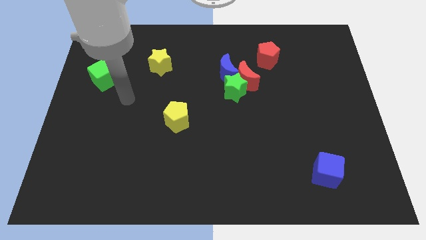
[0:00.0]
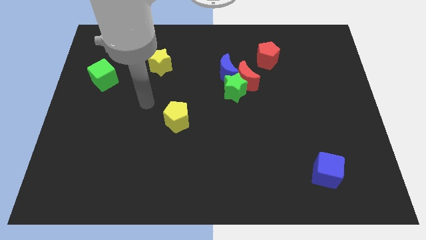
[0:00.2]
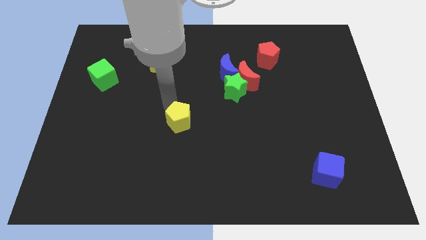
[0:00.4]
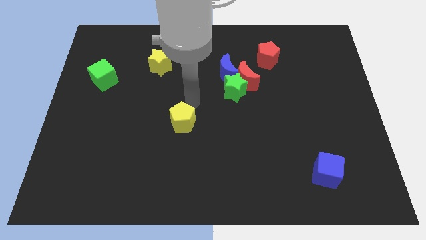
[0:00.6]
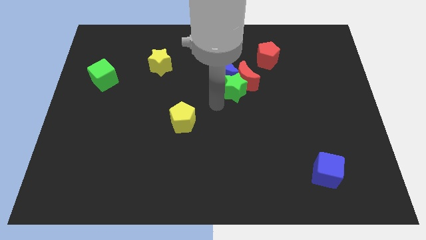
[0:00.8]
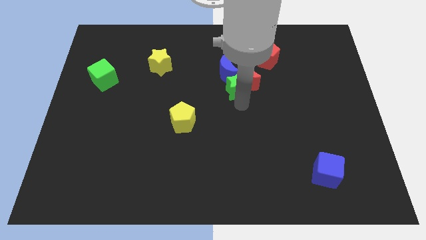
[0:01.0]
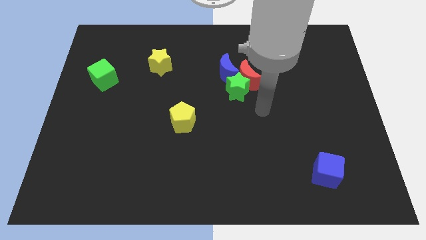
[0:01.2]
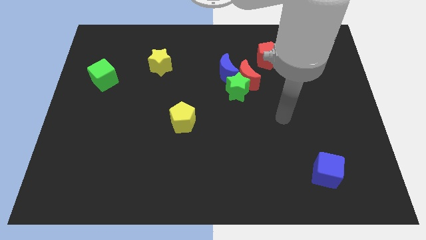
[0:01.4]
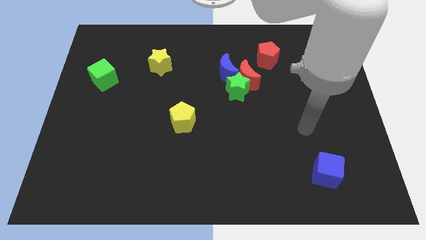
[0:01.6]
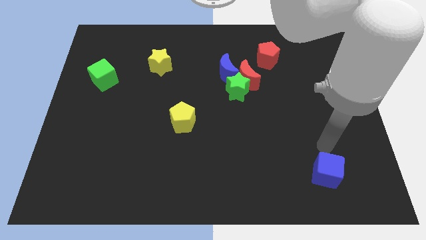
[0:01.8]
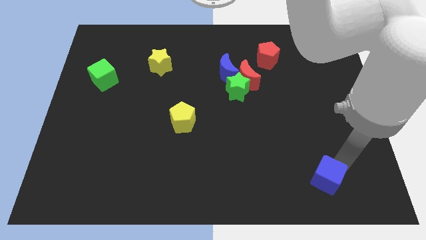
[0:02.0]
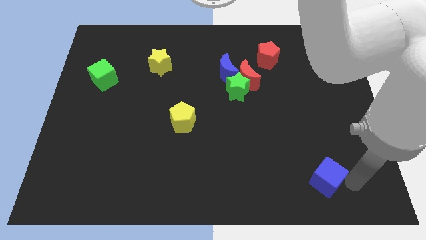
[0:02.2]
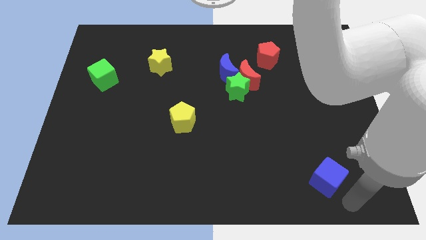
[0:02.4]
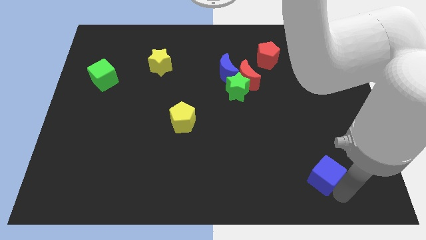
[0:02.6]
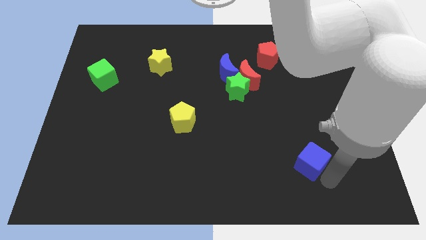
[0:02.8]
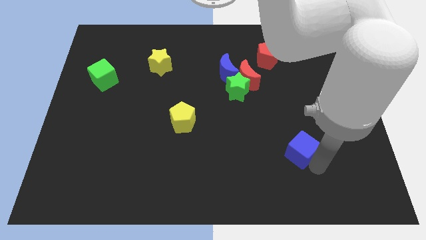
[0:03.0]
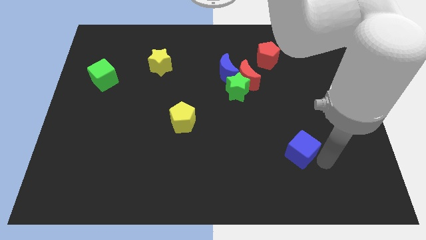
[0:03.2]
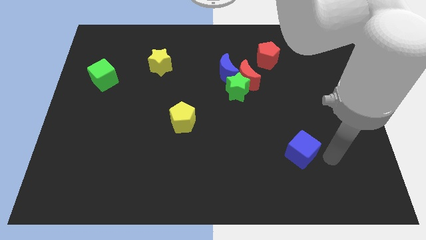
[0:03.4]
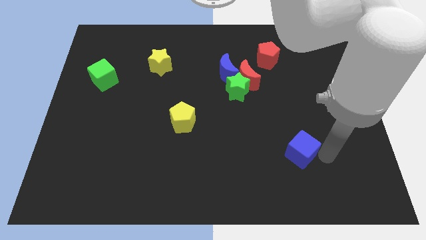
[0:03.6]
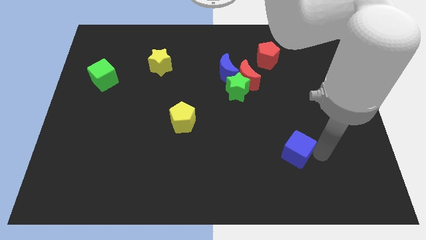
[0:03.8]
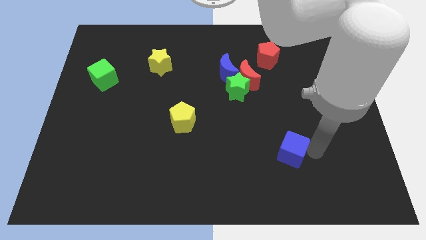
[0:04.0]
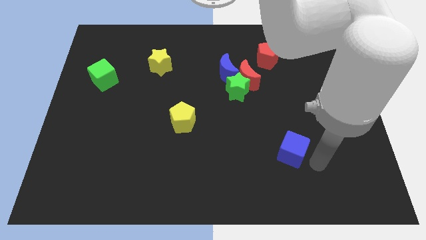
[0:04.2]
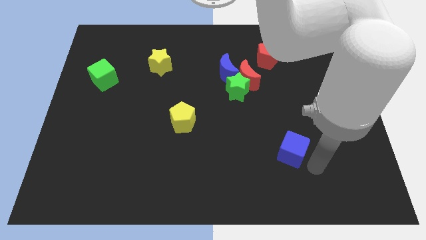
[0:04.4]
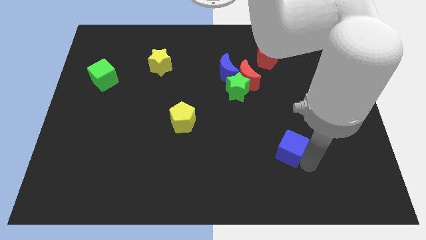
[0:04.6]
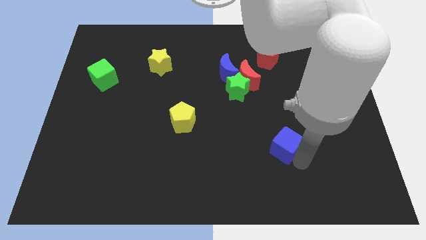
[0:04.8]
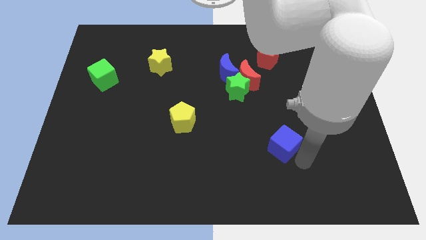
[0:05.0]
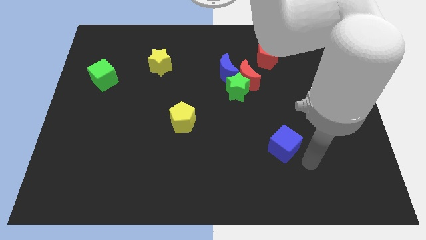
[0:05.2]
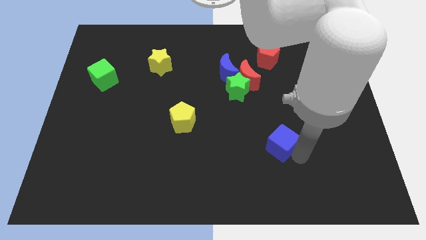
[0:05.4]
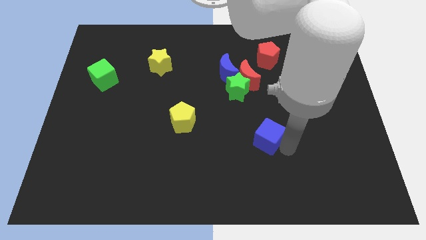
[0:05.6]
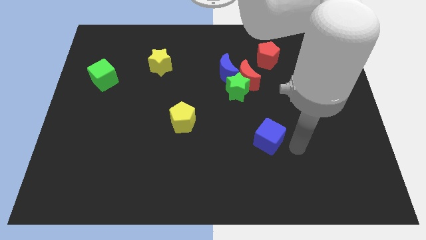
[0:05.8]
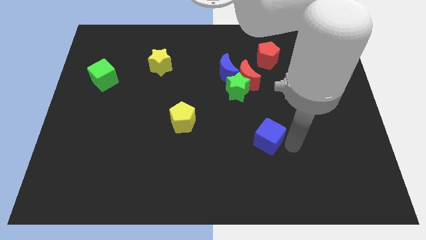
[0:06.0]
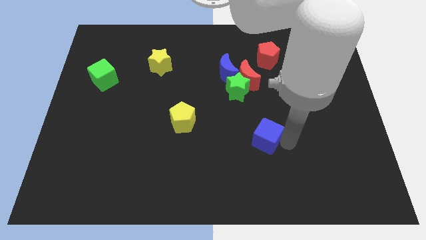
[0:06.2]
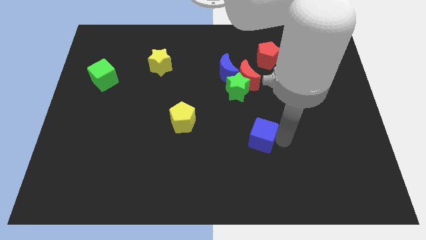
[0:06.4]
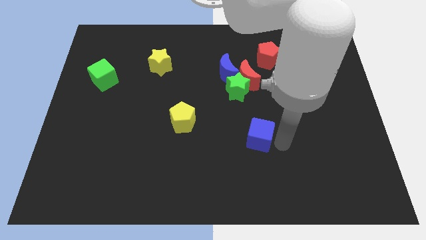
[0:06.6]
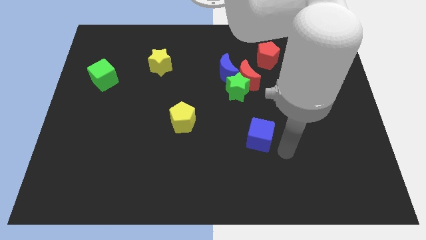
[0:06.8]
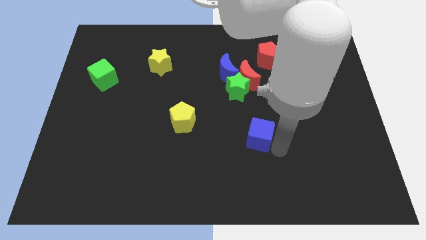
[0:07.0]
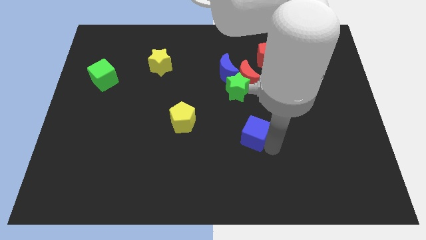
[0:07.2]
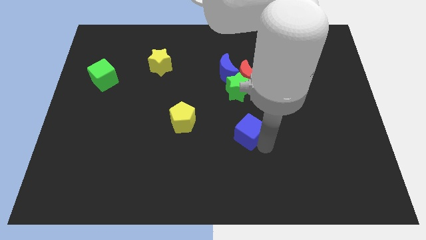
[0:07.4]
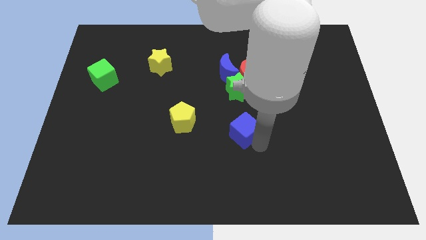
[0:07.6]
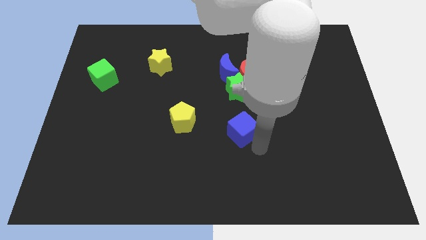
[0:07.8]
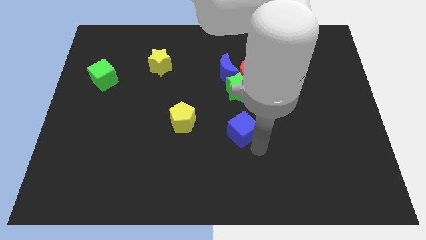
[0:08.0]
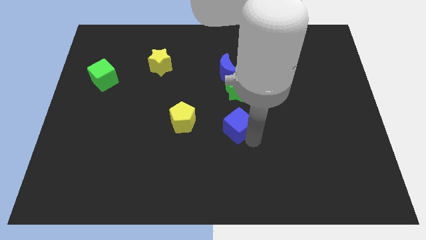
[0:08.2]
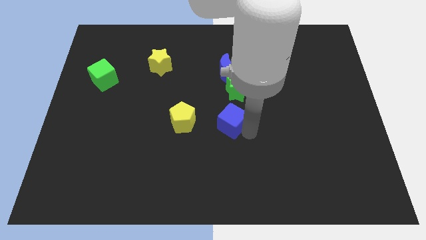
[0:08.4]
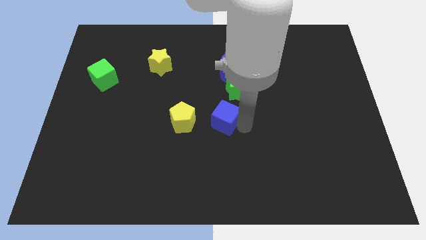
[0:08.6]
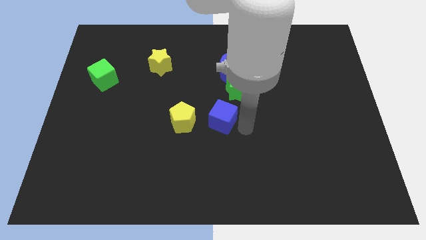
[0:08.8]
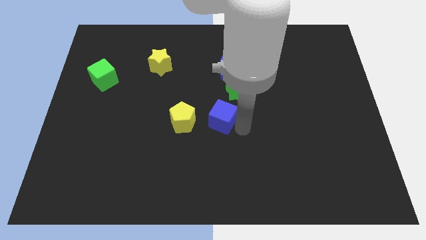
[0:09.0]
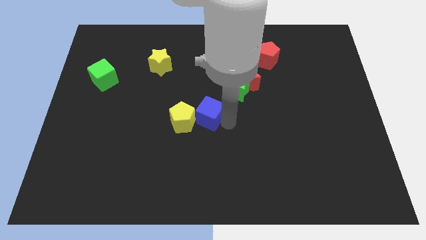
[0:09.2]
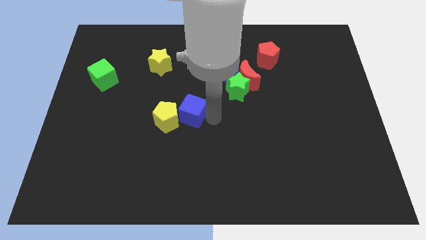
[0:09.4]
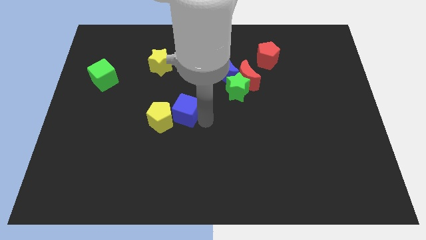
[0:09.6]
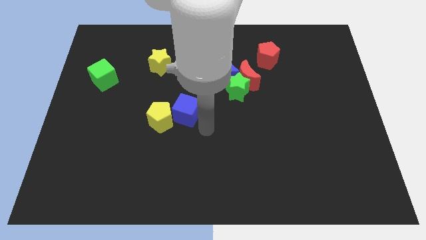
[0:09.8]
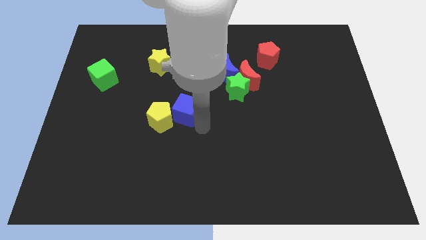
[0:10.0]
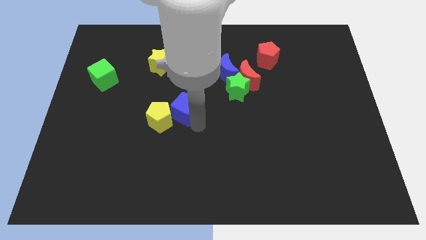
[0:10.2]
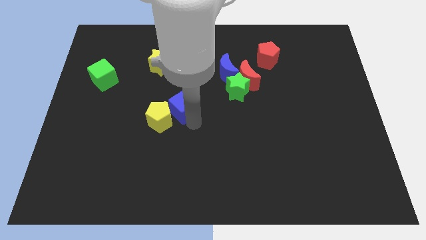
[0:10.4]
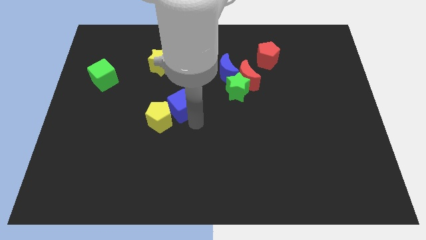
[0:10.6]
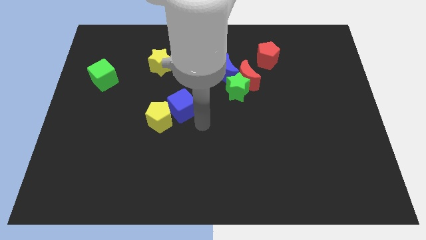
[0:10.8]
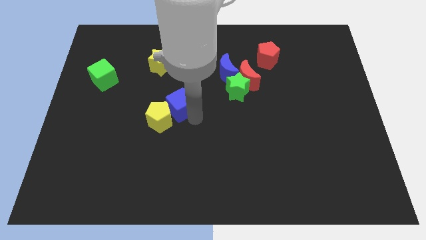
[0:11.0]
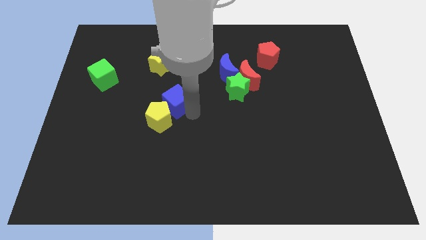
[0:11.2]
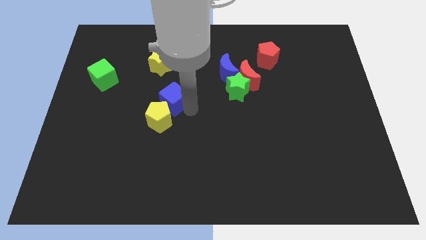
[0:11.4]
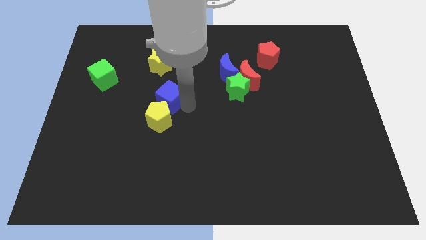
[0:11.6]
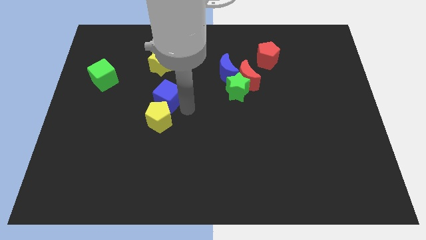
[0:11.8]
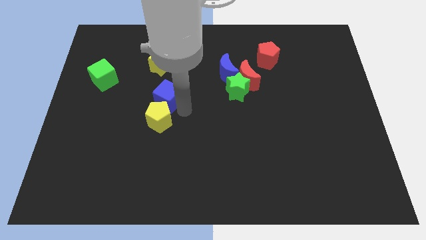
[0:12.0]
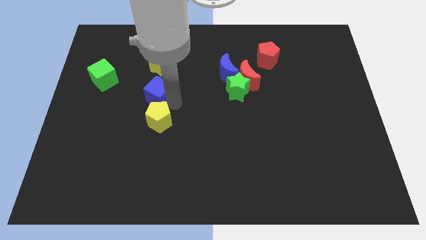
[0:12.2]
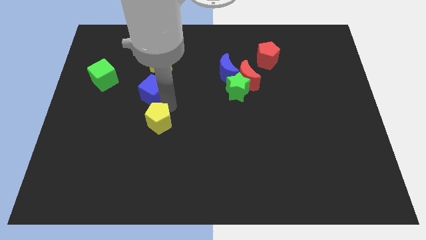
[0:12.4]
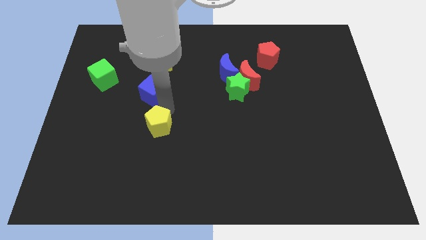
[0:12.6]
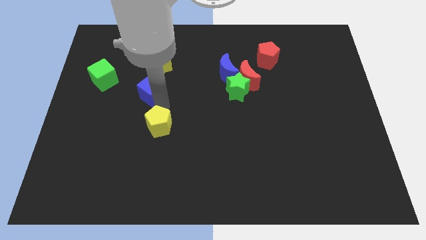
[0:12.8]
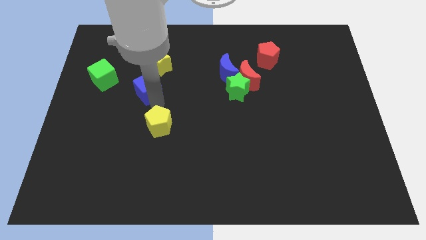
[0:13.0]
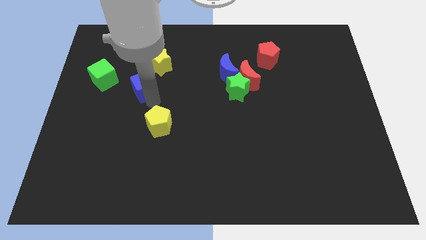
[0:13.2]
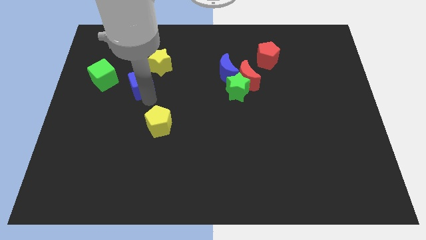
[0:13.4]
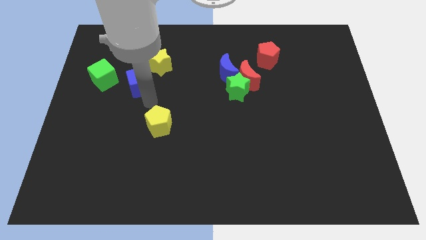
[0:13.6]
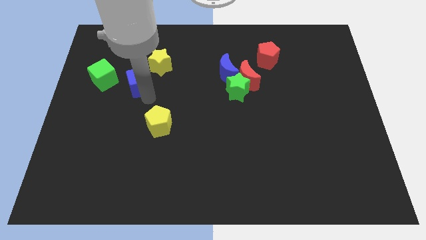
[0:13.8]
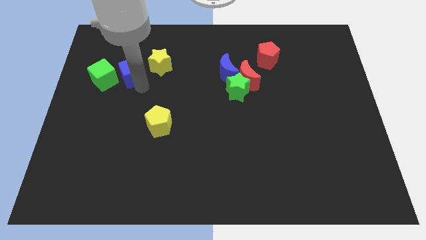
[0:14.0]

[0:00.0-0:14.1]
slide the blue cube to the top right of the green cube

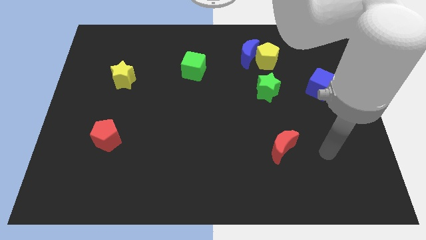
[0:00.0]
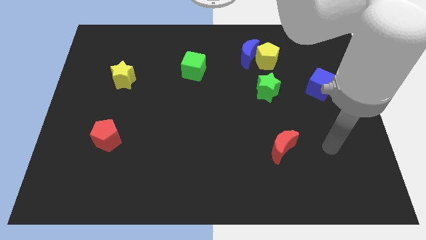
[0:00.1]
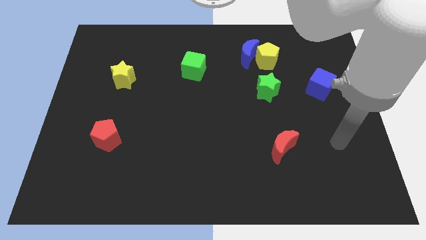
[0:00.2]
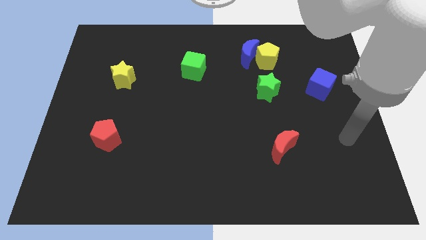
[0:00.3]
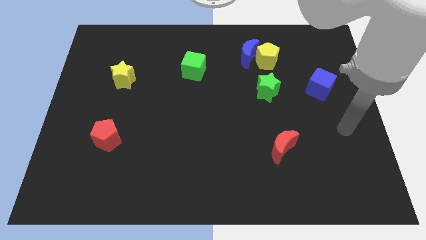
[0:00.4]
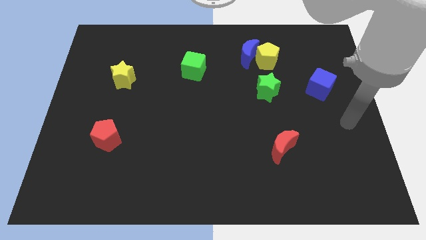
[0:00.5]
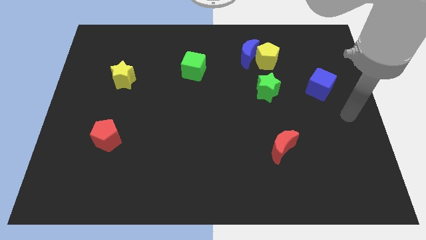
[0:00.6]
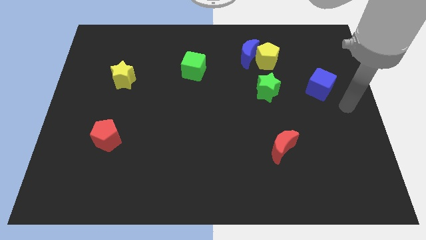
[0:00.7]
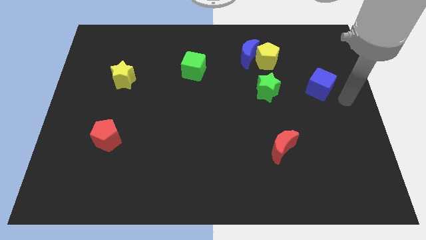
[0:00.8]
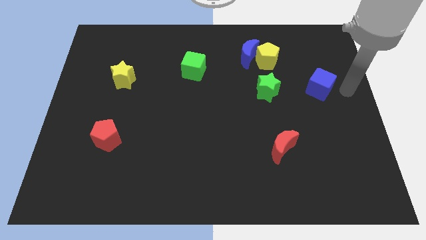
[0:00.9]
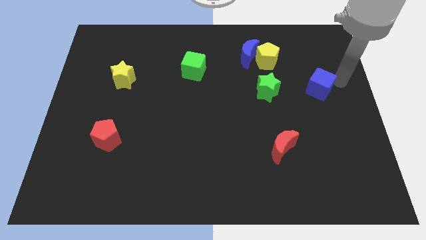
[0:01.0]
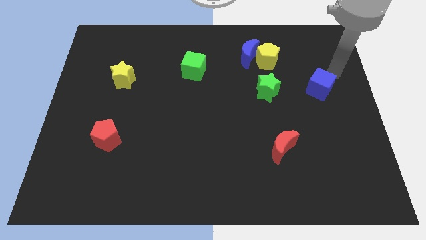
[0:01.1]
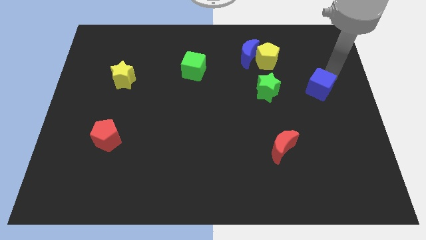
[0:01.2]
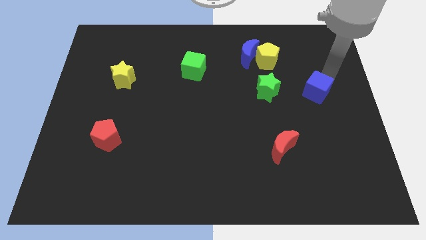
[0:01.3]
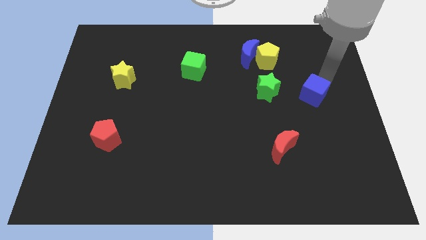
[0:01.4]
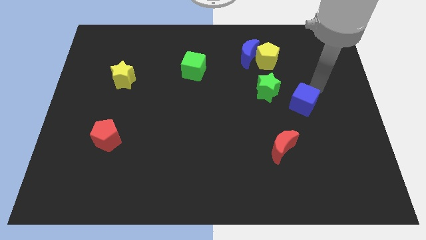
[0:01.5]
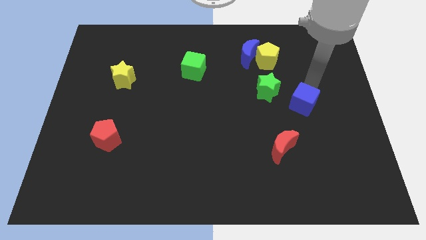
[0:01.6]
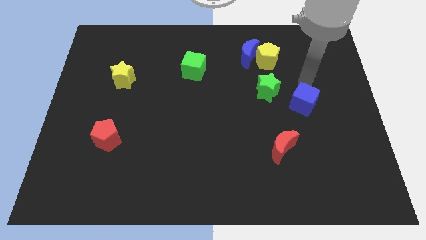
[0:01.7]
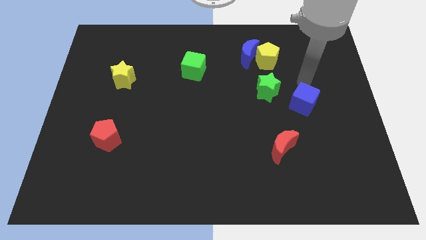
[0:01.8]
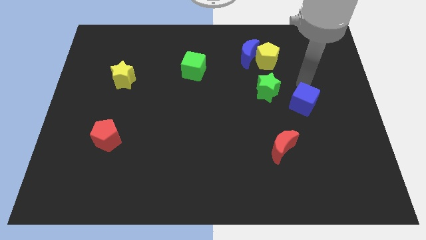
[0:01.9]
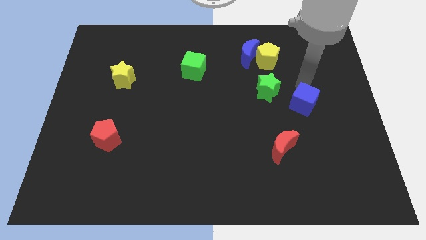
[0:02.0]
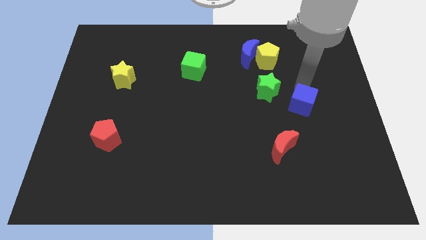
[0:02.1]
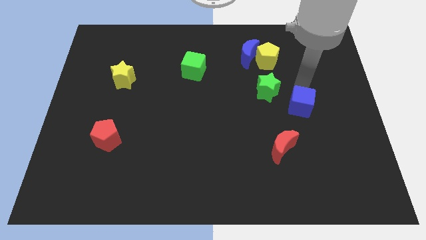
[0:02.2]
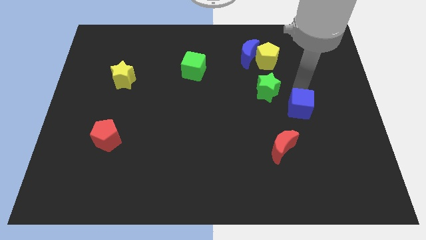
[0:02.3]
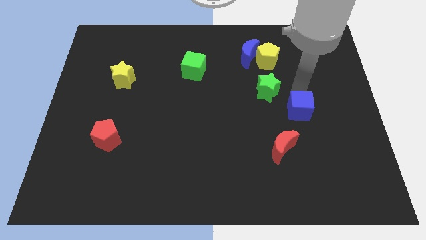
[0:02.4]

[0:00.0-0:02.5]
push the blue cube to the top right side of the red moon
